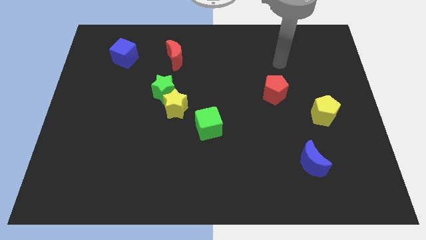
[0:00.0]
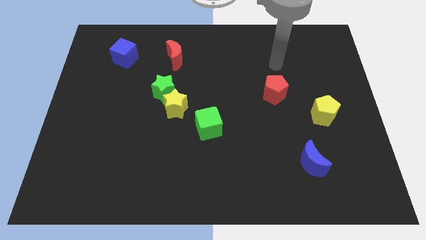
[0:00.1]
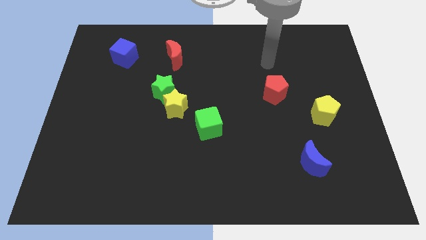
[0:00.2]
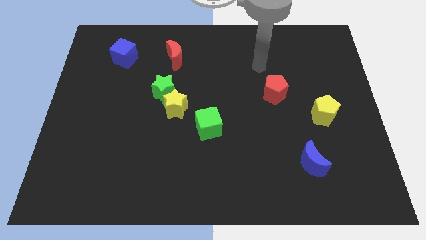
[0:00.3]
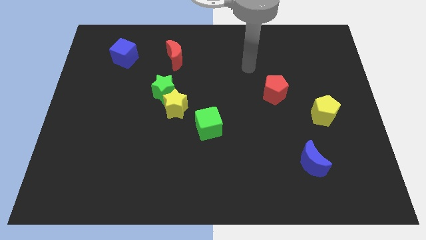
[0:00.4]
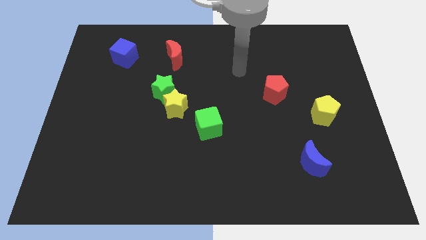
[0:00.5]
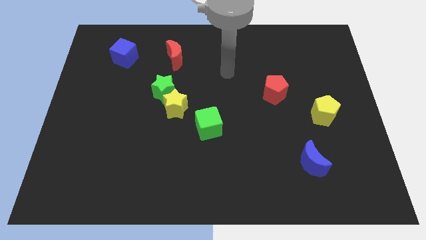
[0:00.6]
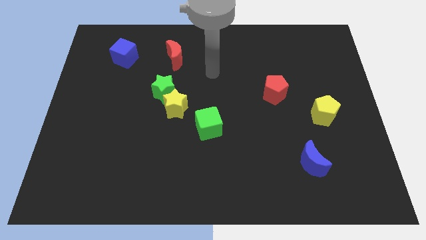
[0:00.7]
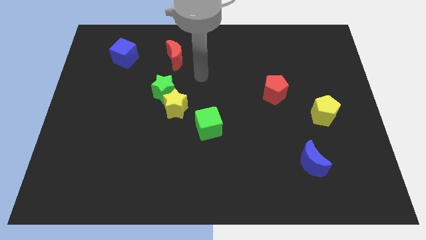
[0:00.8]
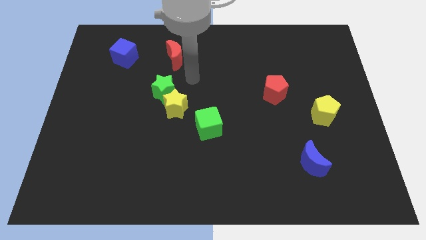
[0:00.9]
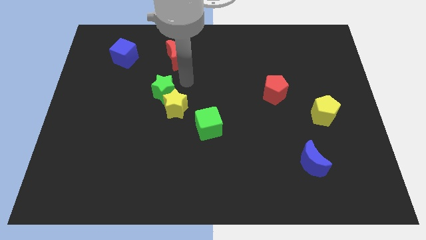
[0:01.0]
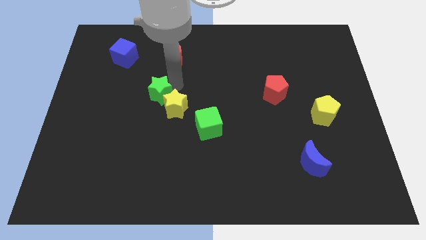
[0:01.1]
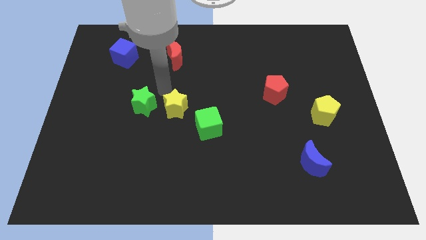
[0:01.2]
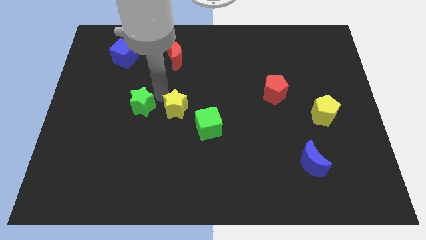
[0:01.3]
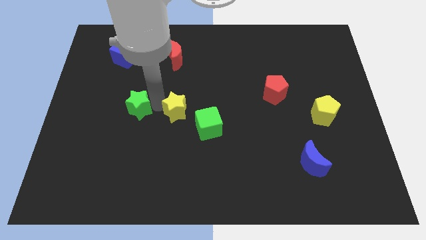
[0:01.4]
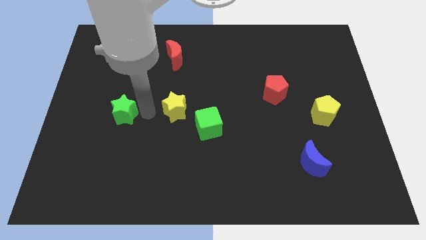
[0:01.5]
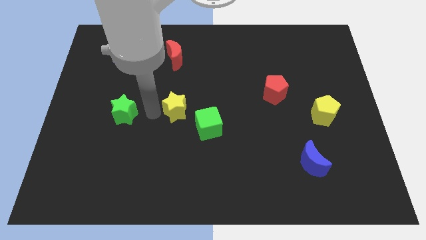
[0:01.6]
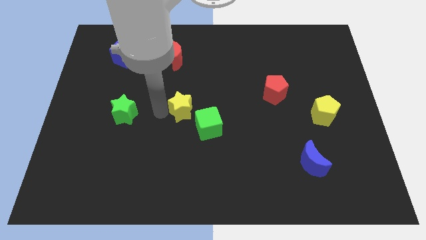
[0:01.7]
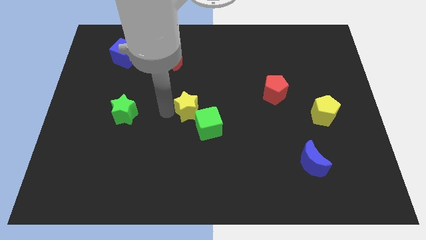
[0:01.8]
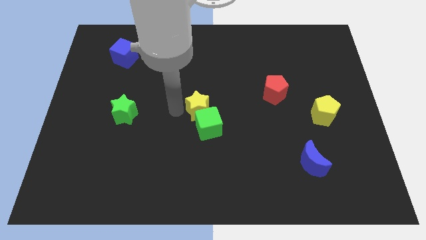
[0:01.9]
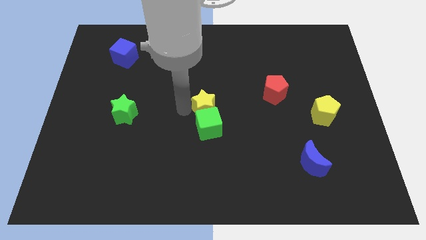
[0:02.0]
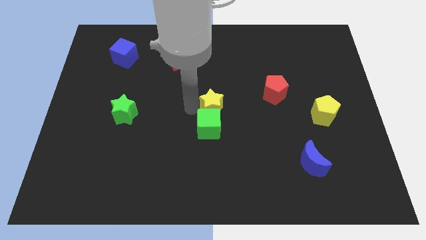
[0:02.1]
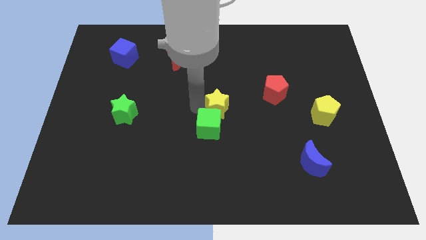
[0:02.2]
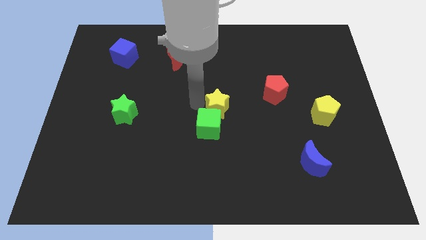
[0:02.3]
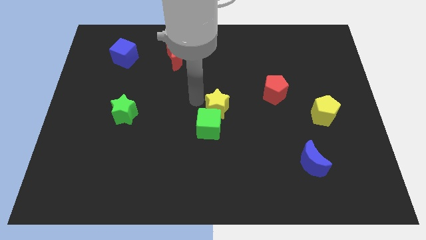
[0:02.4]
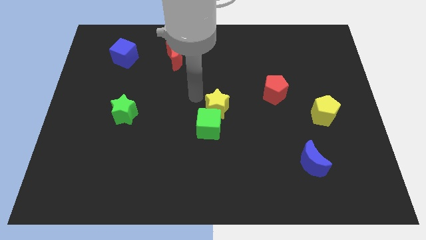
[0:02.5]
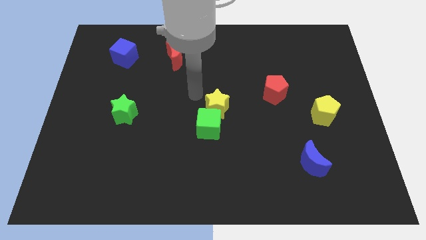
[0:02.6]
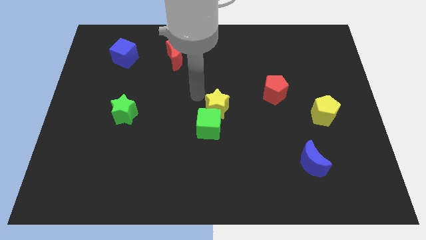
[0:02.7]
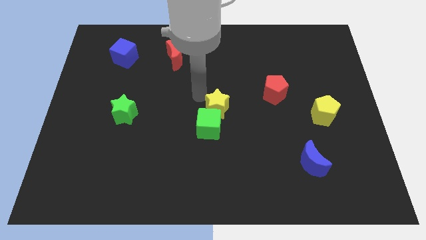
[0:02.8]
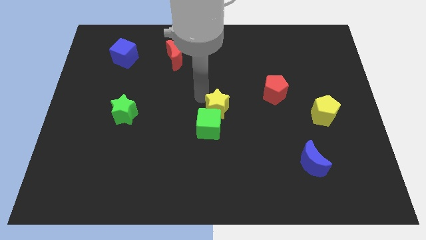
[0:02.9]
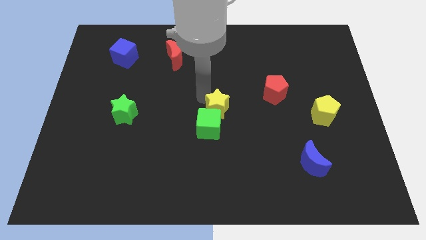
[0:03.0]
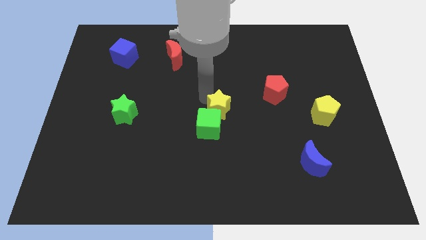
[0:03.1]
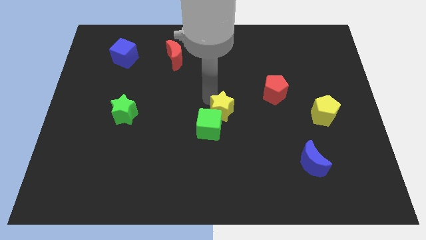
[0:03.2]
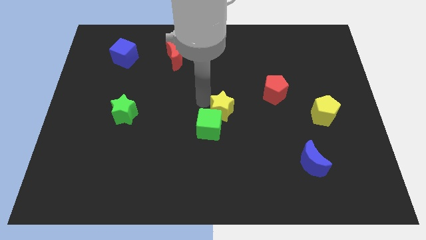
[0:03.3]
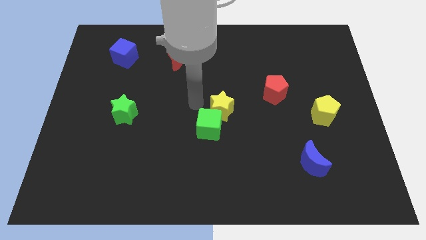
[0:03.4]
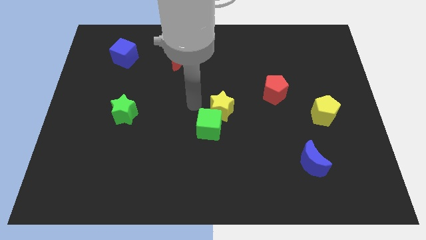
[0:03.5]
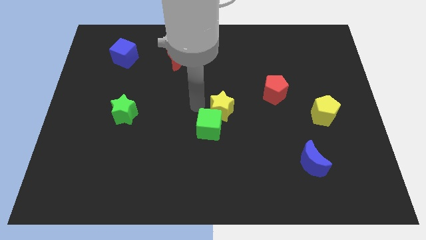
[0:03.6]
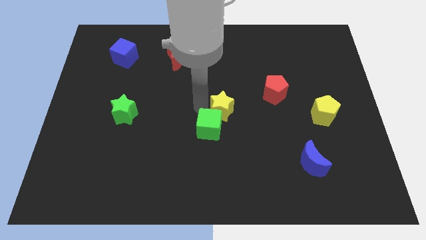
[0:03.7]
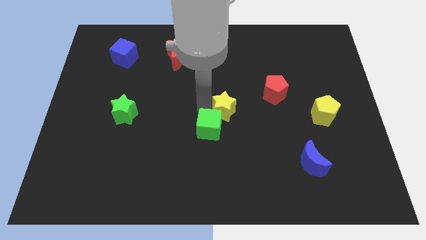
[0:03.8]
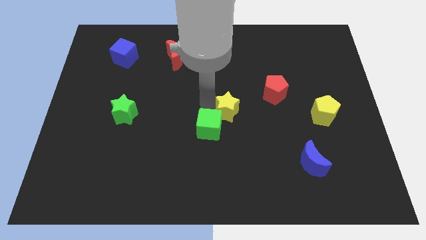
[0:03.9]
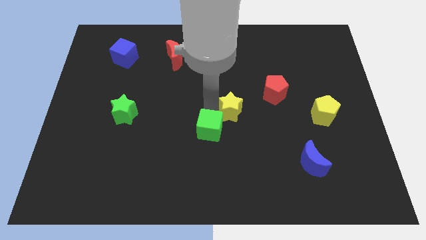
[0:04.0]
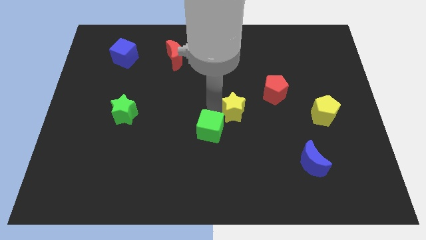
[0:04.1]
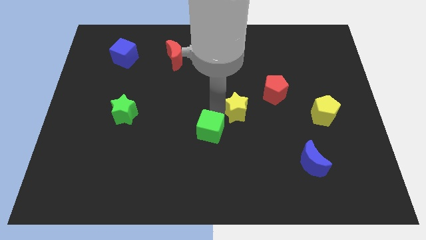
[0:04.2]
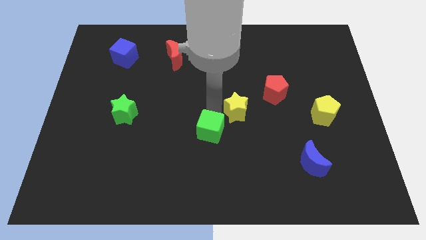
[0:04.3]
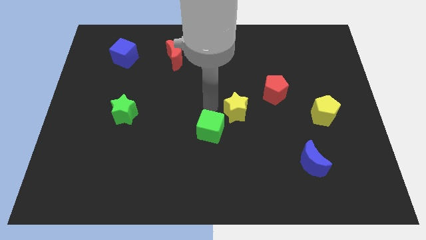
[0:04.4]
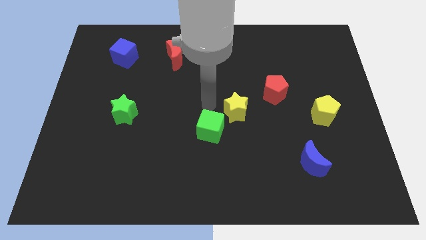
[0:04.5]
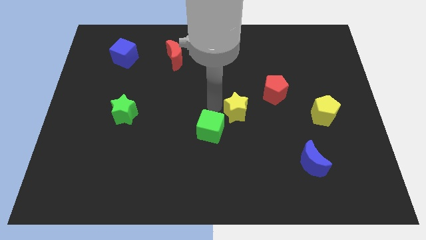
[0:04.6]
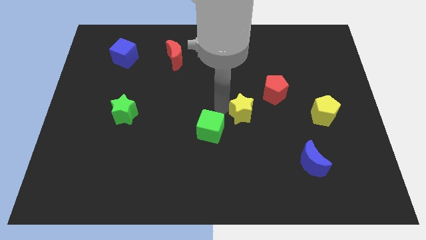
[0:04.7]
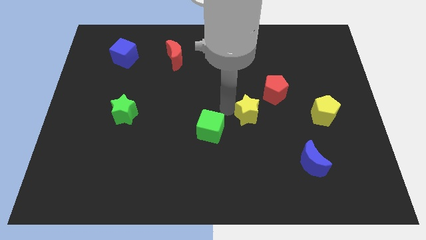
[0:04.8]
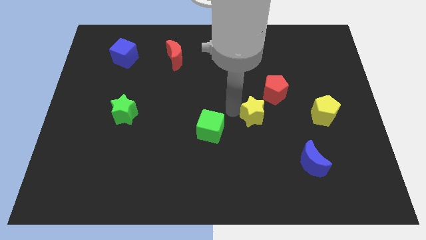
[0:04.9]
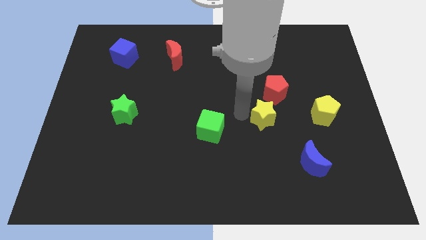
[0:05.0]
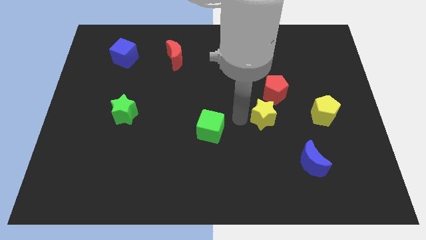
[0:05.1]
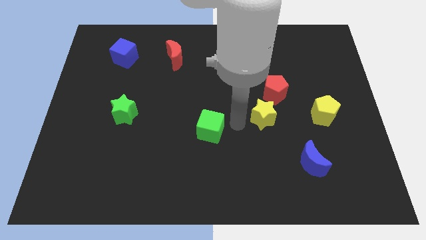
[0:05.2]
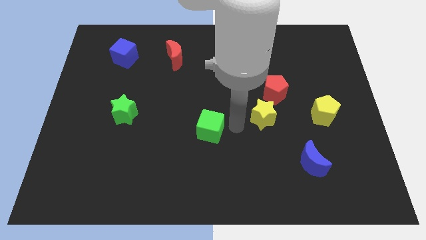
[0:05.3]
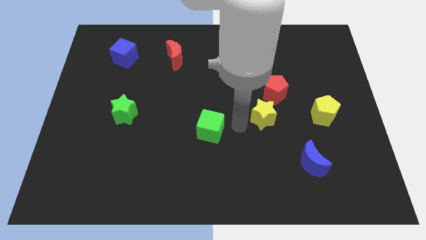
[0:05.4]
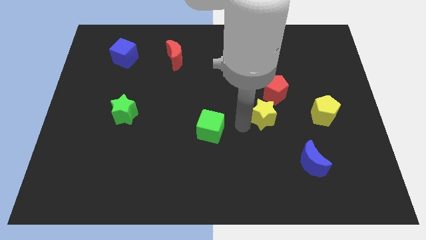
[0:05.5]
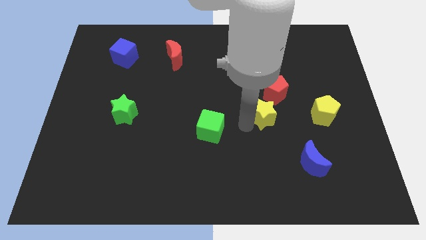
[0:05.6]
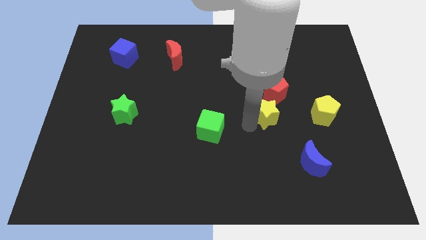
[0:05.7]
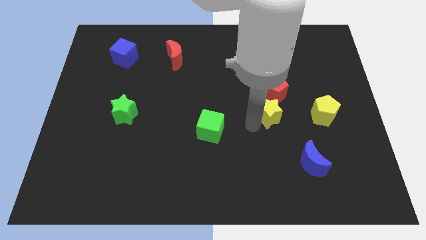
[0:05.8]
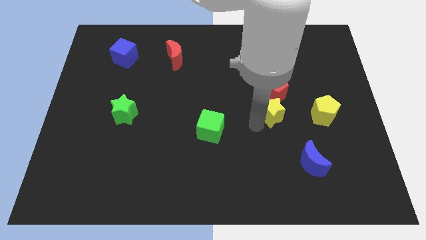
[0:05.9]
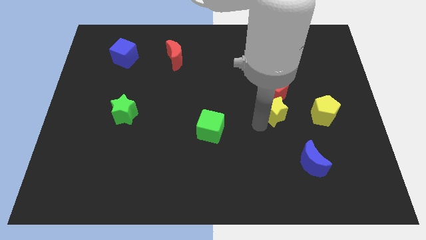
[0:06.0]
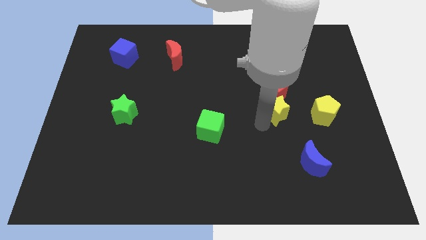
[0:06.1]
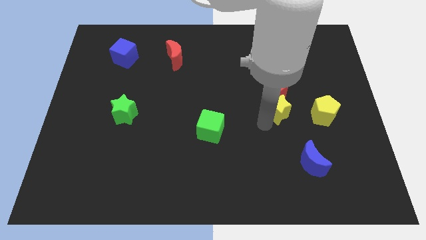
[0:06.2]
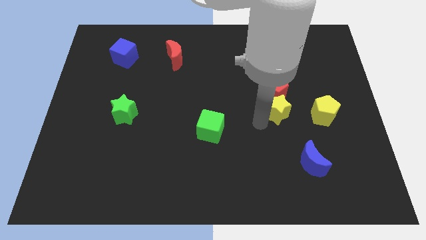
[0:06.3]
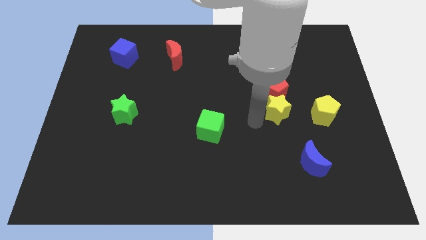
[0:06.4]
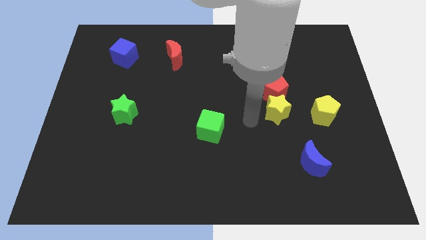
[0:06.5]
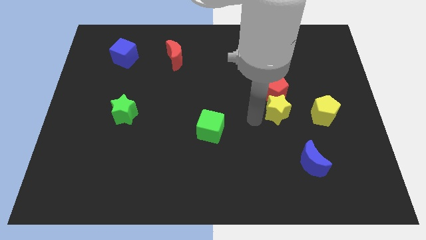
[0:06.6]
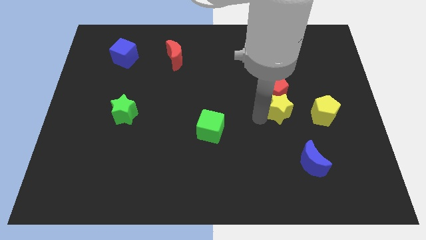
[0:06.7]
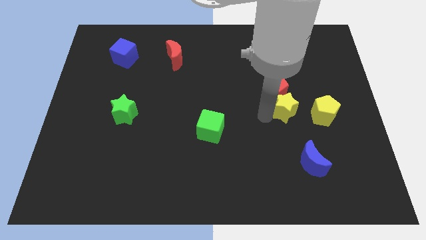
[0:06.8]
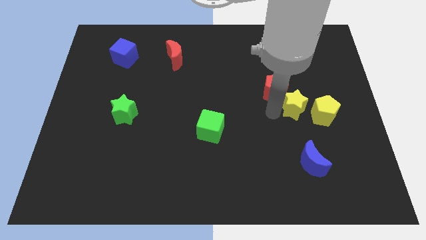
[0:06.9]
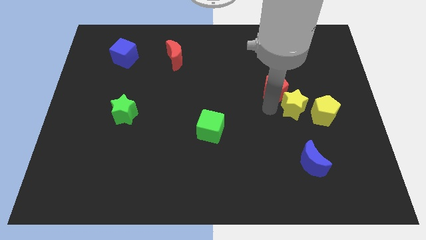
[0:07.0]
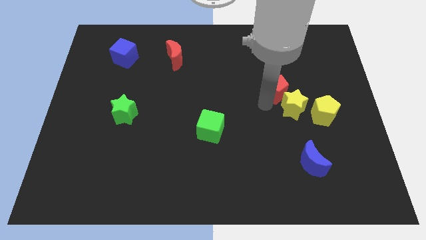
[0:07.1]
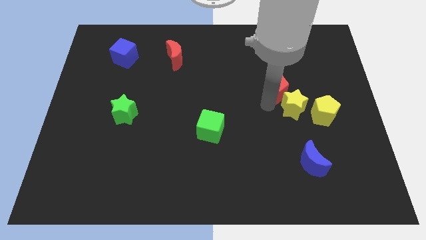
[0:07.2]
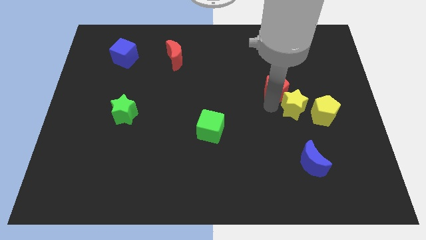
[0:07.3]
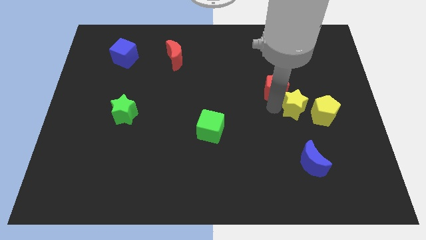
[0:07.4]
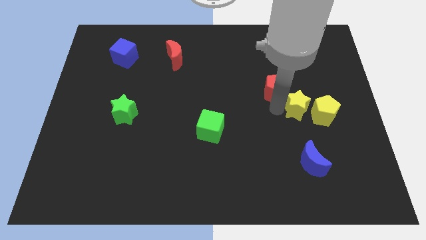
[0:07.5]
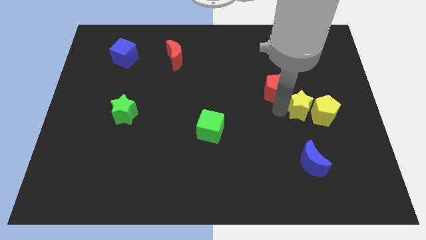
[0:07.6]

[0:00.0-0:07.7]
put the yellow star next to the yellow pentagon

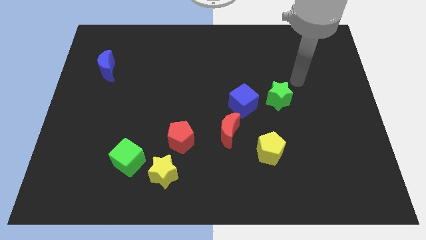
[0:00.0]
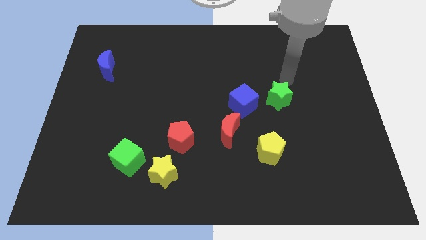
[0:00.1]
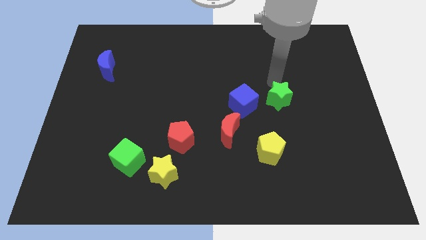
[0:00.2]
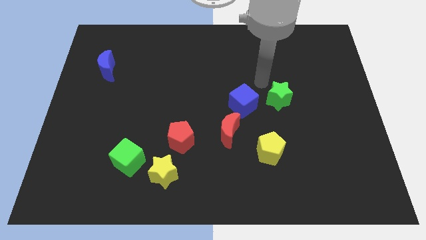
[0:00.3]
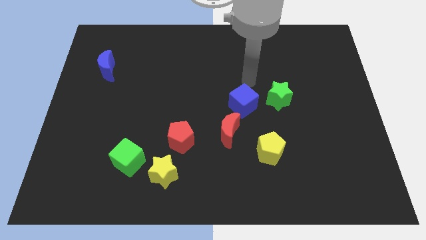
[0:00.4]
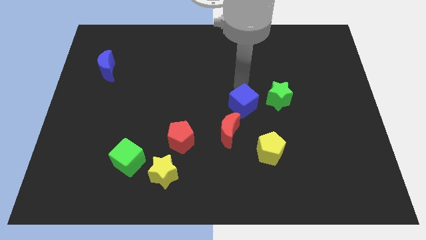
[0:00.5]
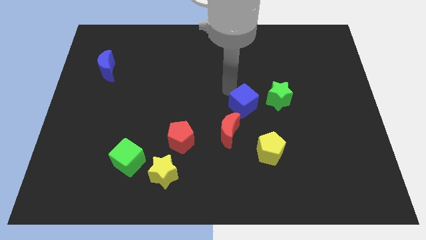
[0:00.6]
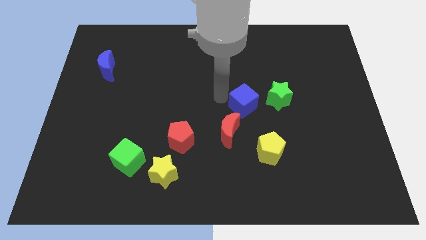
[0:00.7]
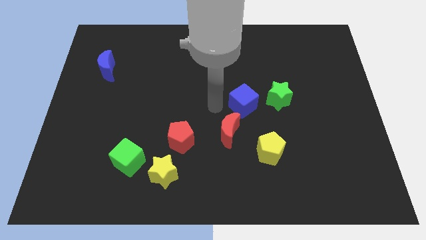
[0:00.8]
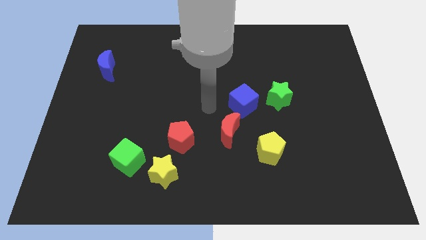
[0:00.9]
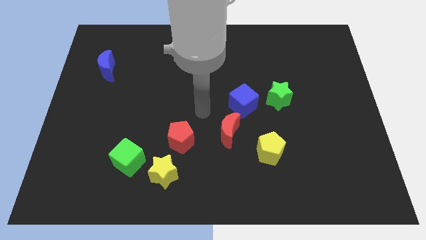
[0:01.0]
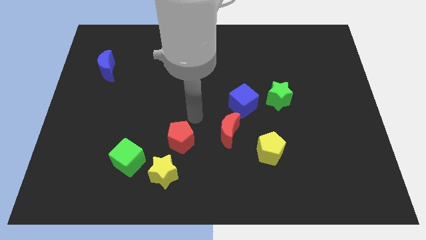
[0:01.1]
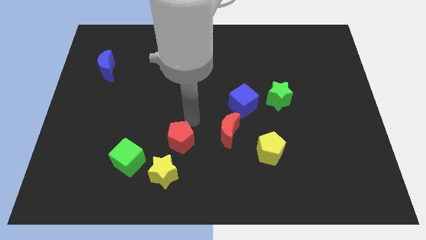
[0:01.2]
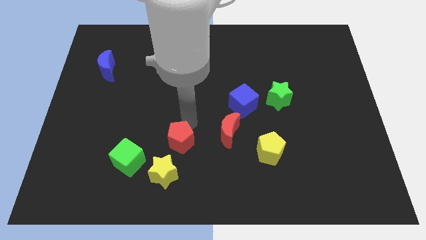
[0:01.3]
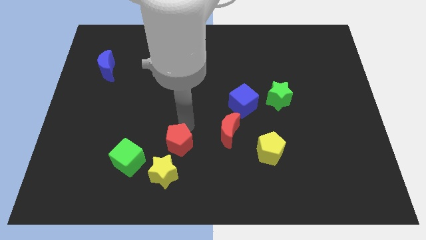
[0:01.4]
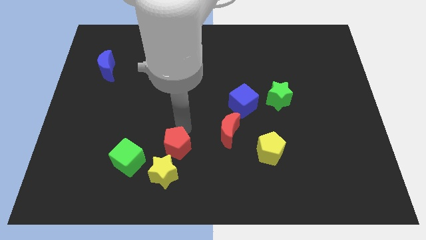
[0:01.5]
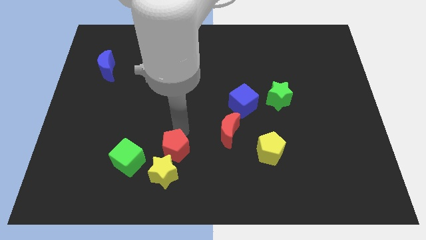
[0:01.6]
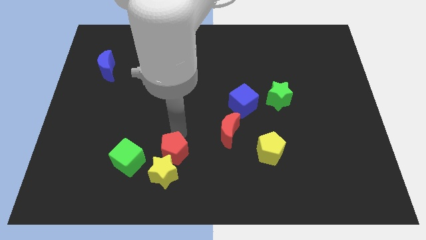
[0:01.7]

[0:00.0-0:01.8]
put the red pentagon next to the yellow star
